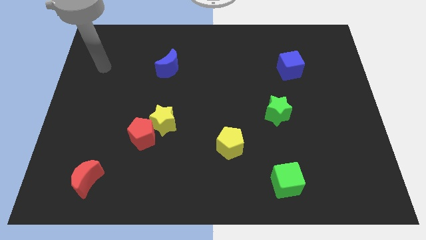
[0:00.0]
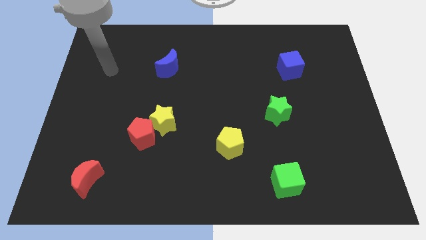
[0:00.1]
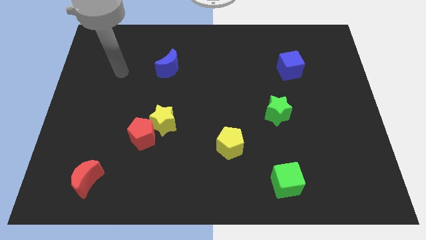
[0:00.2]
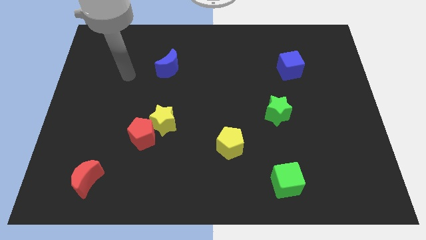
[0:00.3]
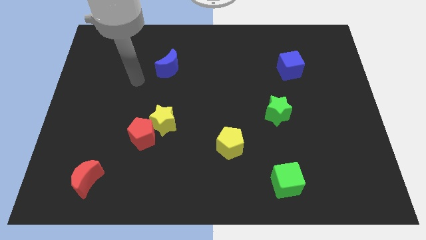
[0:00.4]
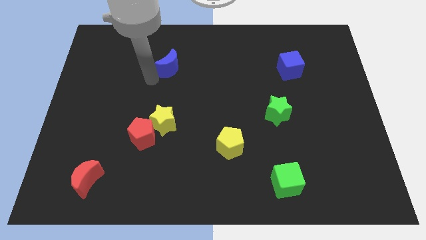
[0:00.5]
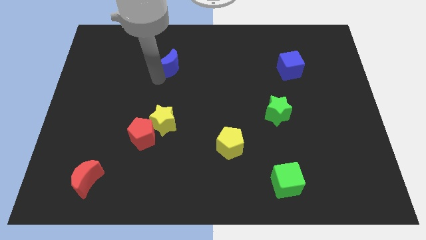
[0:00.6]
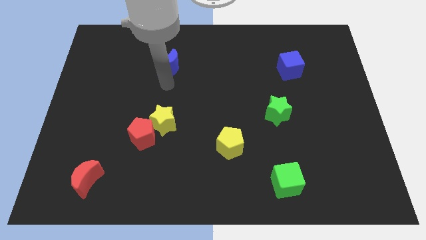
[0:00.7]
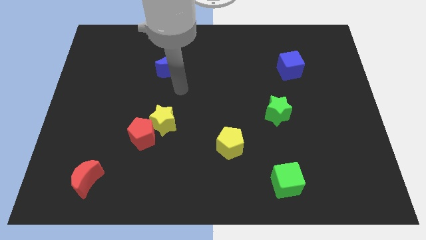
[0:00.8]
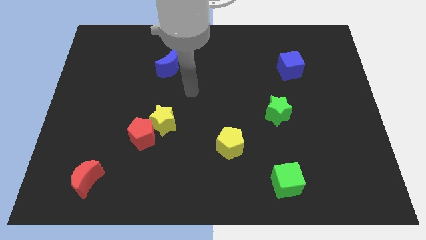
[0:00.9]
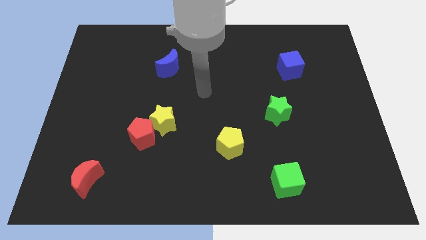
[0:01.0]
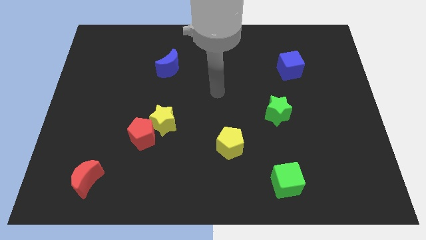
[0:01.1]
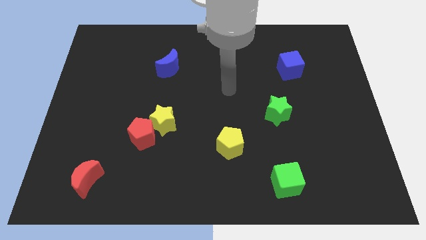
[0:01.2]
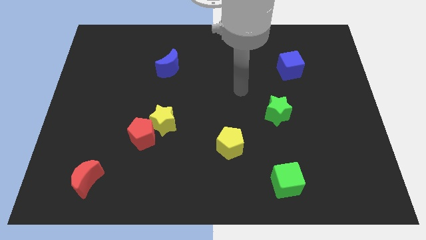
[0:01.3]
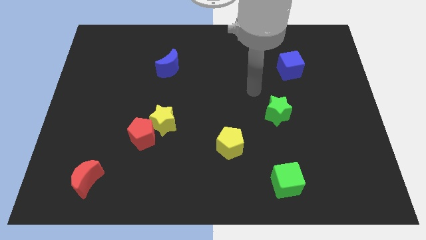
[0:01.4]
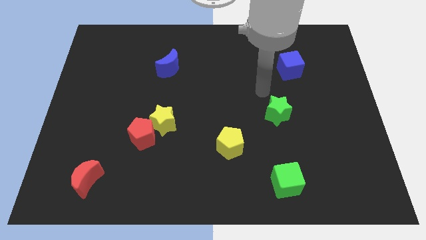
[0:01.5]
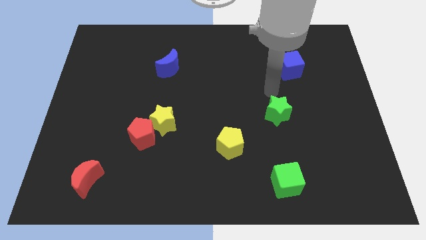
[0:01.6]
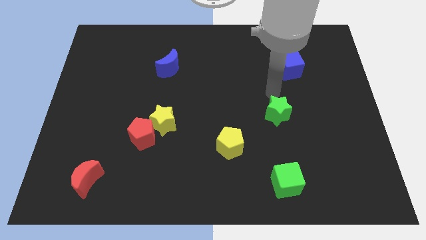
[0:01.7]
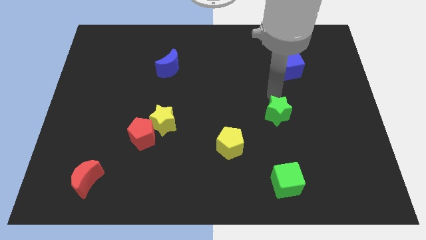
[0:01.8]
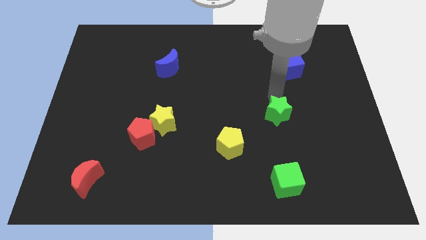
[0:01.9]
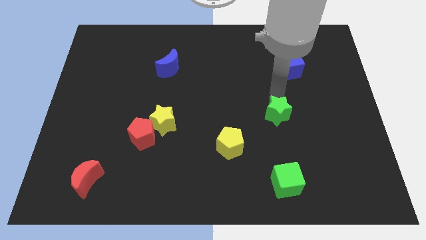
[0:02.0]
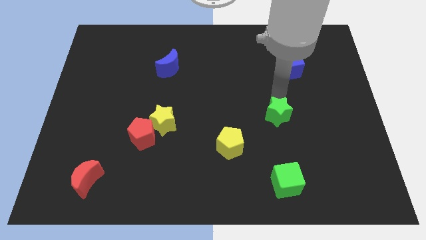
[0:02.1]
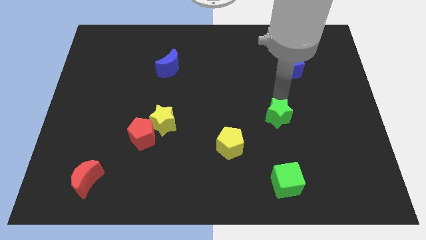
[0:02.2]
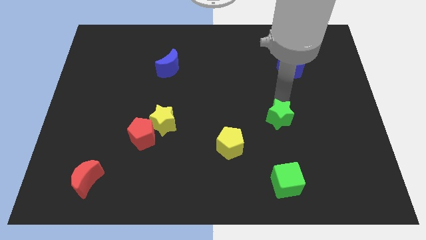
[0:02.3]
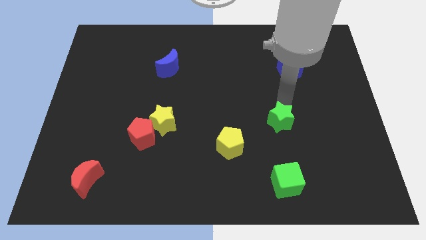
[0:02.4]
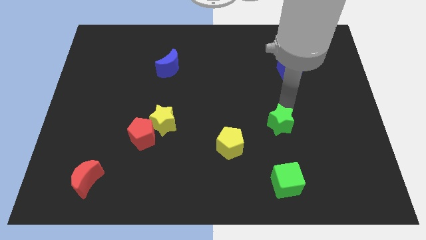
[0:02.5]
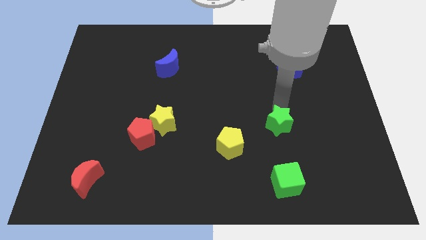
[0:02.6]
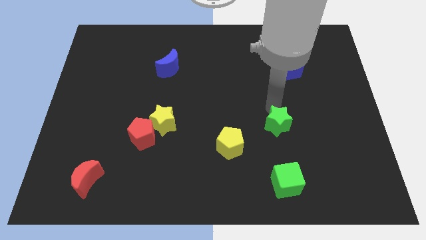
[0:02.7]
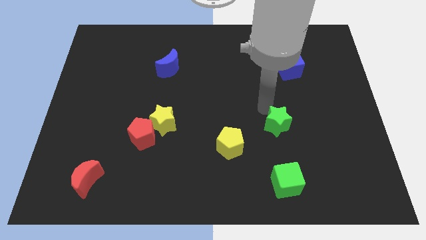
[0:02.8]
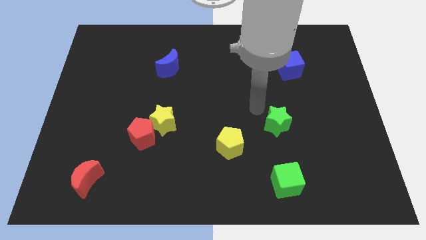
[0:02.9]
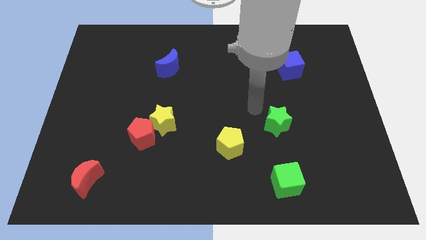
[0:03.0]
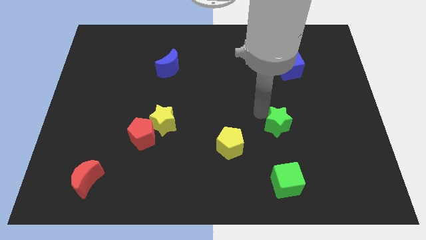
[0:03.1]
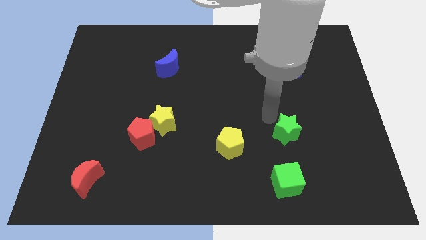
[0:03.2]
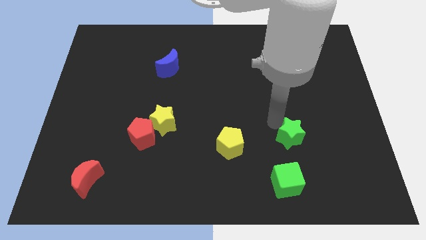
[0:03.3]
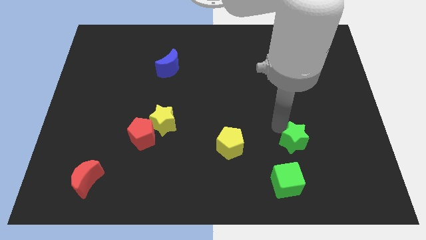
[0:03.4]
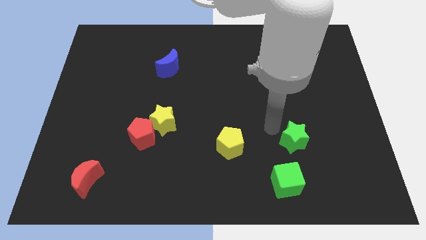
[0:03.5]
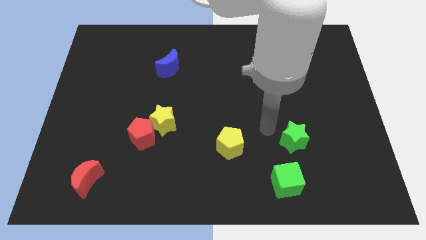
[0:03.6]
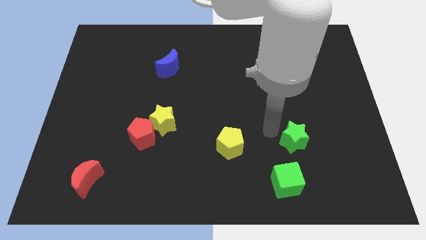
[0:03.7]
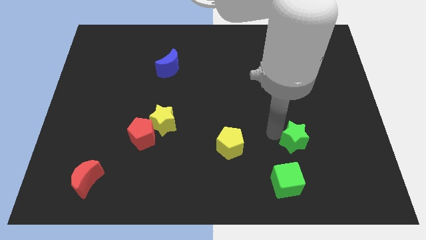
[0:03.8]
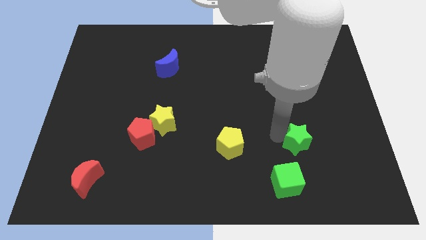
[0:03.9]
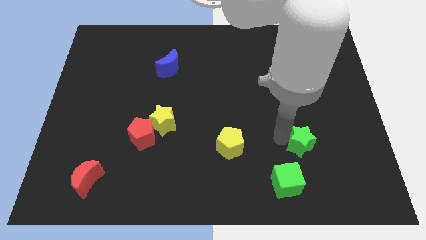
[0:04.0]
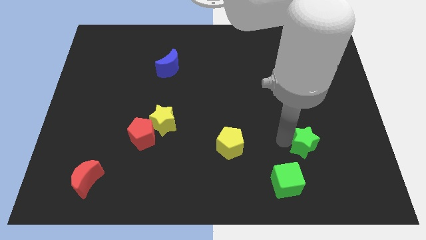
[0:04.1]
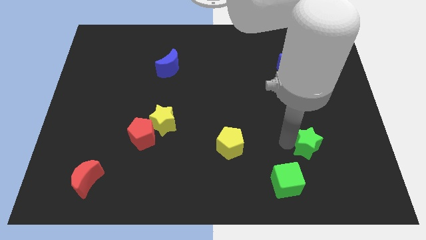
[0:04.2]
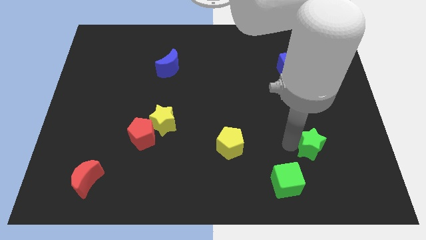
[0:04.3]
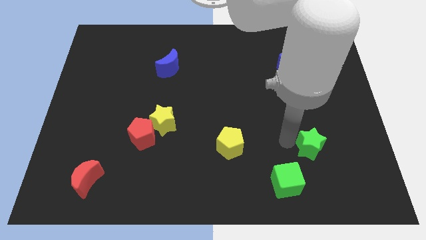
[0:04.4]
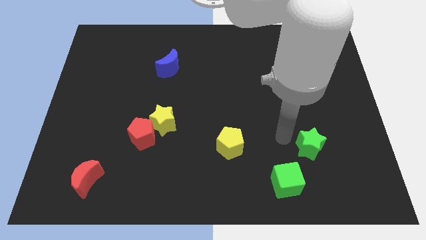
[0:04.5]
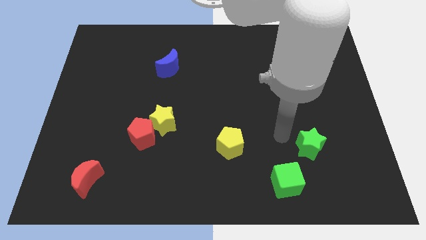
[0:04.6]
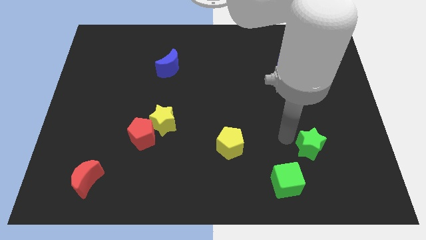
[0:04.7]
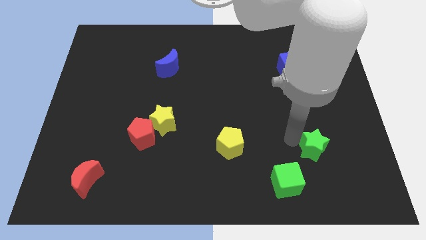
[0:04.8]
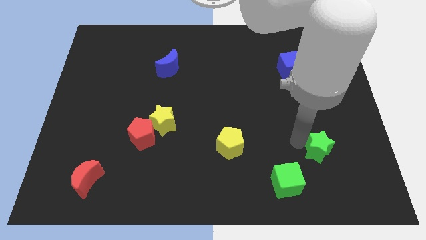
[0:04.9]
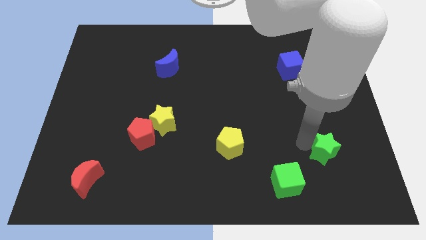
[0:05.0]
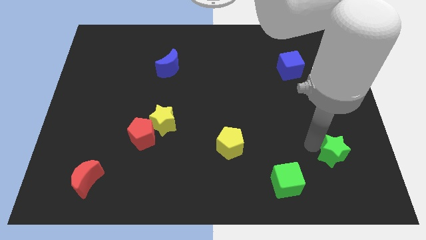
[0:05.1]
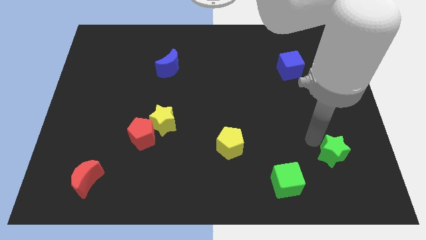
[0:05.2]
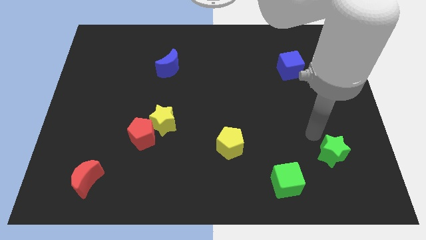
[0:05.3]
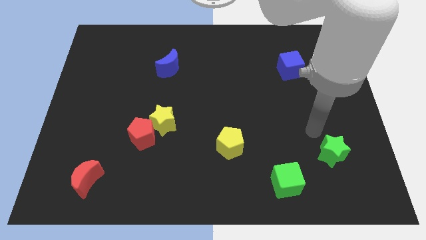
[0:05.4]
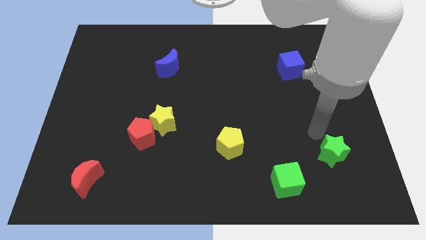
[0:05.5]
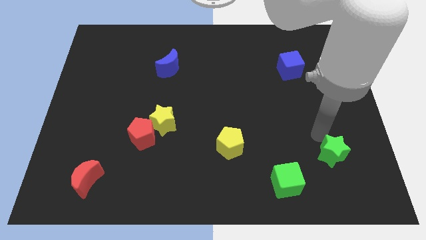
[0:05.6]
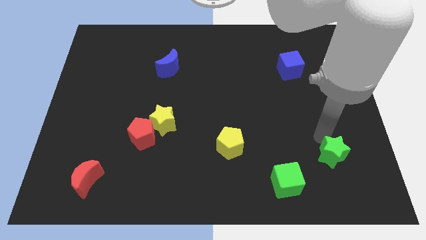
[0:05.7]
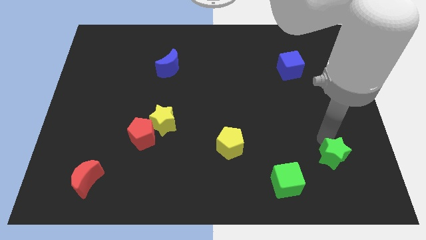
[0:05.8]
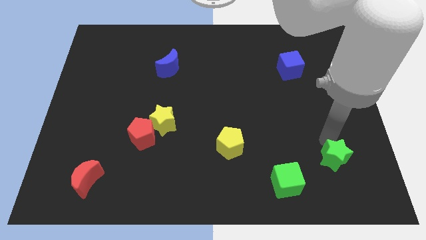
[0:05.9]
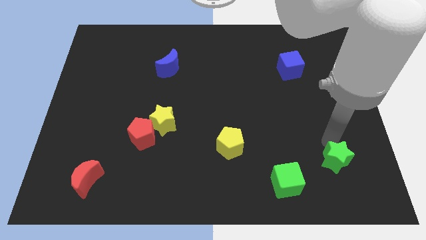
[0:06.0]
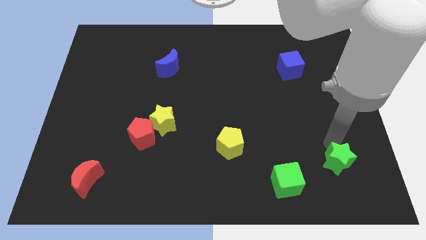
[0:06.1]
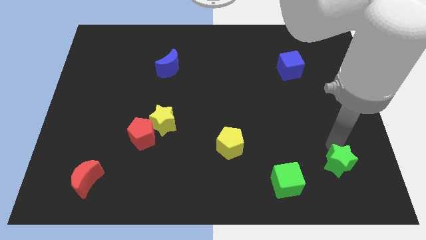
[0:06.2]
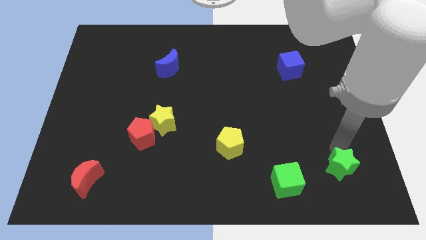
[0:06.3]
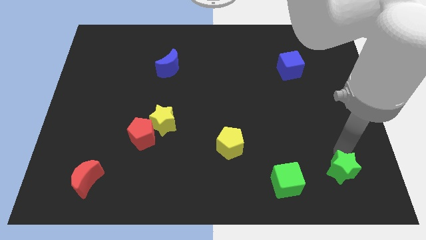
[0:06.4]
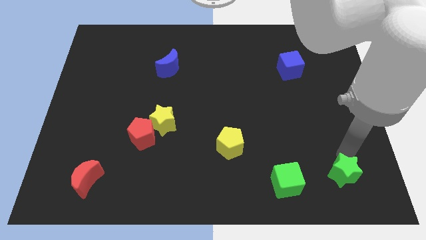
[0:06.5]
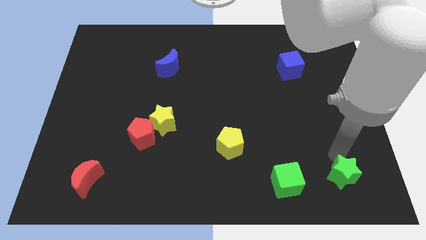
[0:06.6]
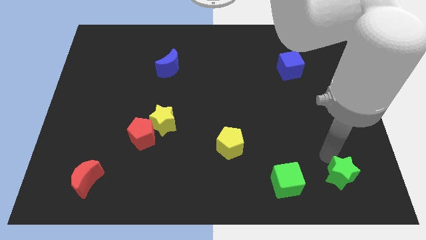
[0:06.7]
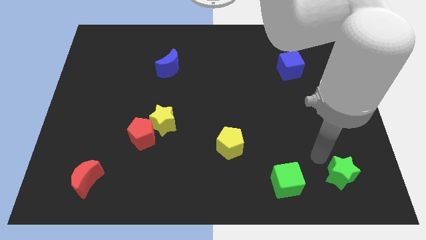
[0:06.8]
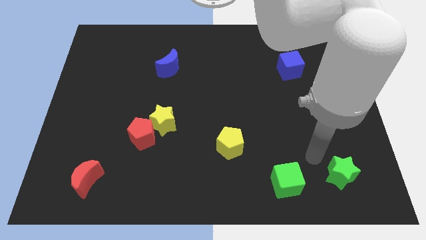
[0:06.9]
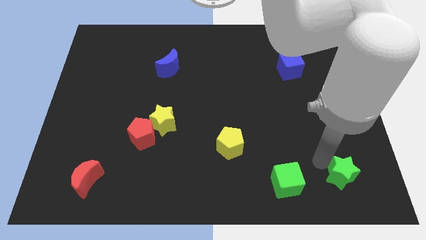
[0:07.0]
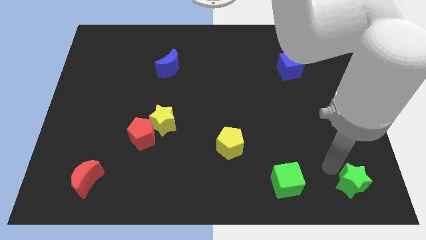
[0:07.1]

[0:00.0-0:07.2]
move the green star to the bottom right corner
